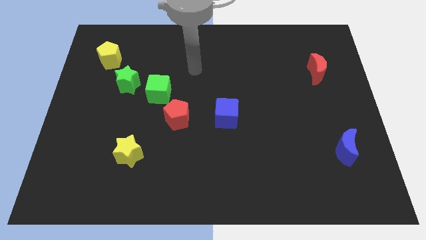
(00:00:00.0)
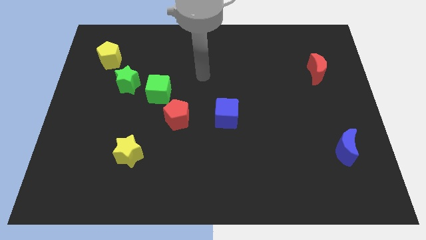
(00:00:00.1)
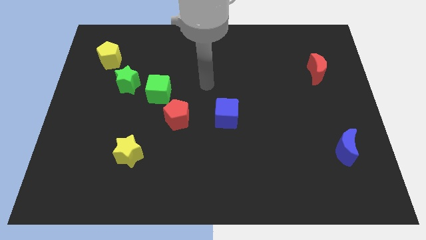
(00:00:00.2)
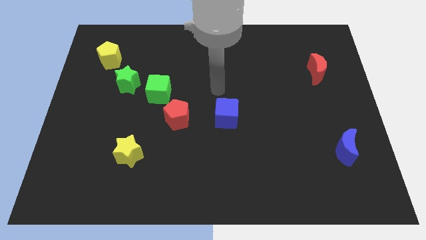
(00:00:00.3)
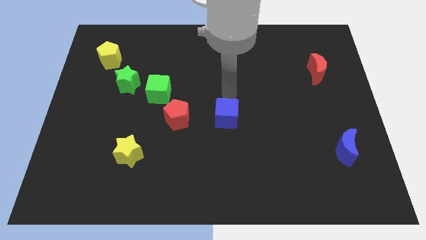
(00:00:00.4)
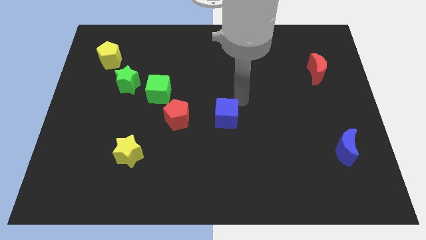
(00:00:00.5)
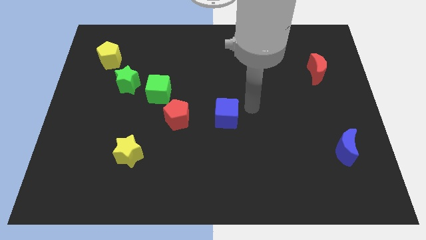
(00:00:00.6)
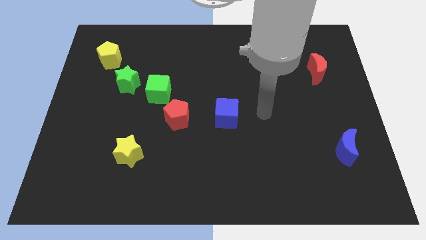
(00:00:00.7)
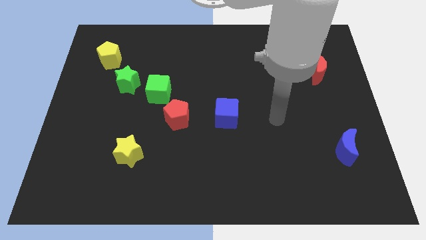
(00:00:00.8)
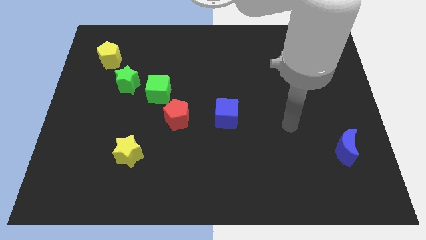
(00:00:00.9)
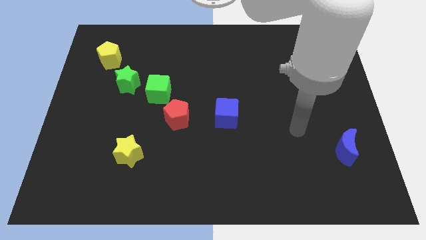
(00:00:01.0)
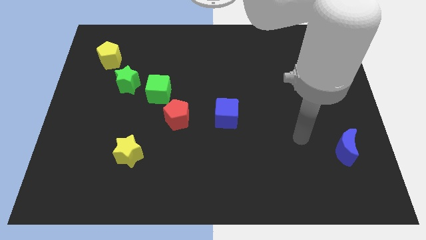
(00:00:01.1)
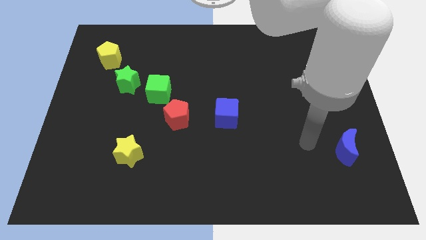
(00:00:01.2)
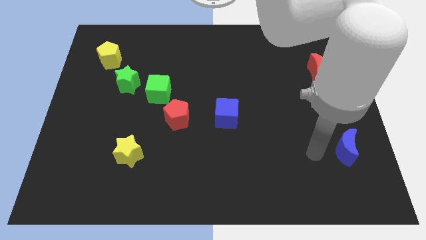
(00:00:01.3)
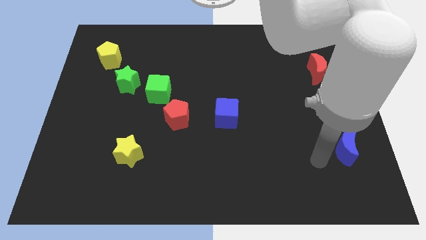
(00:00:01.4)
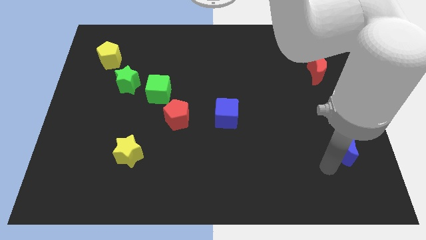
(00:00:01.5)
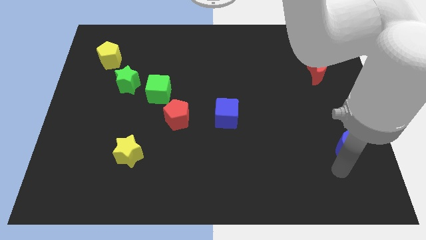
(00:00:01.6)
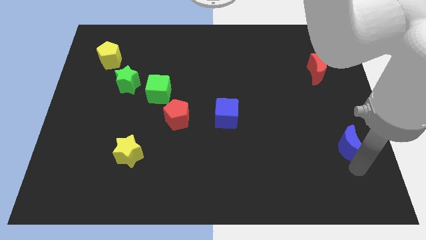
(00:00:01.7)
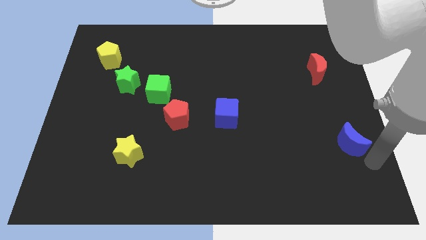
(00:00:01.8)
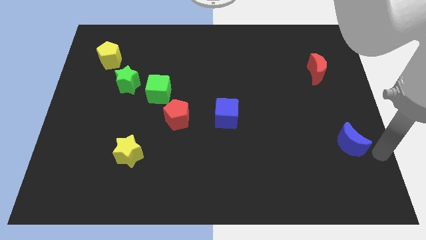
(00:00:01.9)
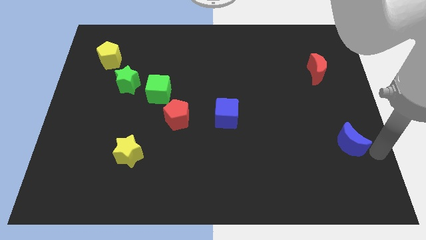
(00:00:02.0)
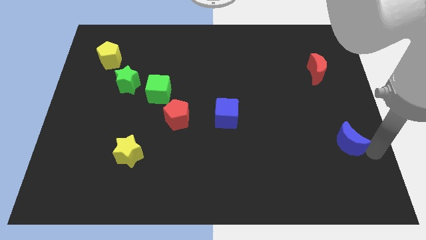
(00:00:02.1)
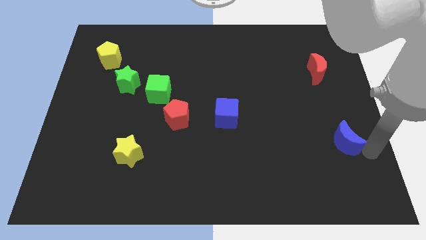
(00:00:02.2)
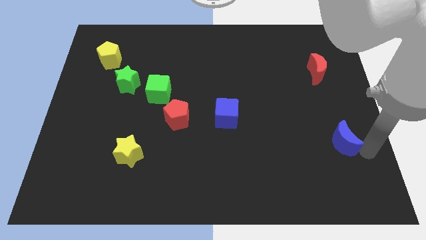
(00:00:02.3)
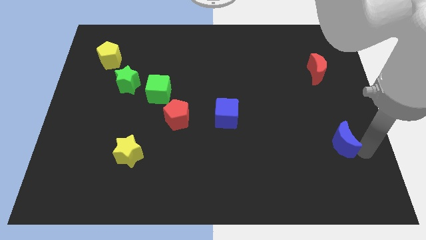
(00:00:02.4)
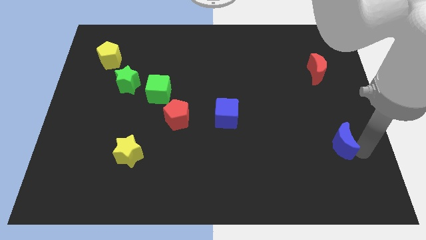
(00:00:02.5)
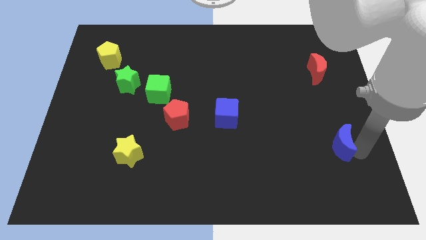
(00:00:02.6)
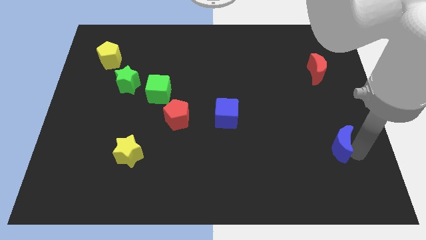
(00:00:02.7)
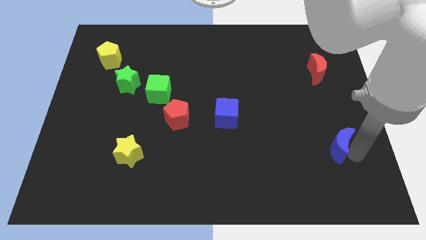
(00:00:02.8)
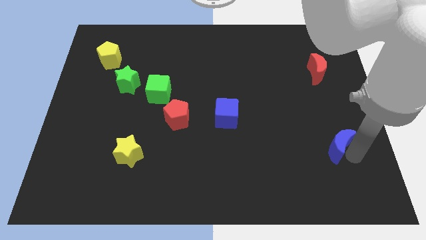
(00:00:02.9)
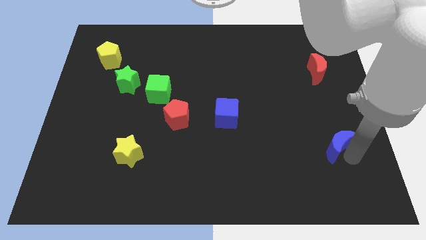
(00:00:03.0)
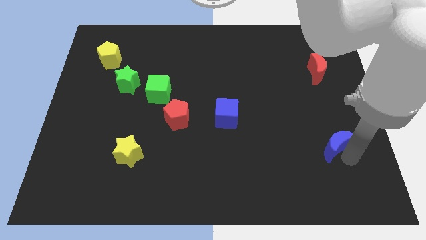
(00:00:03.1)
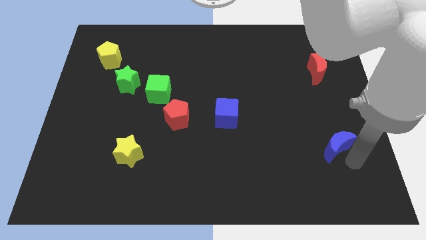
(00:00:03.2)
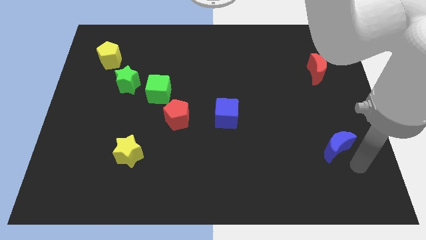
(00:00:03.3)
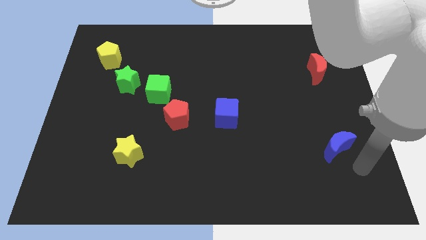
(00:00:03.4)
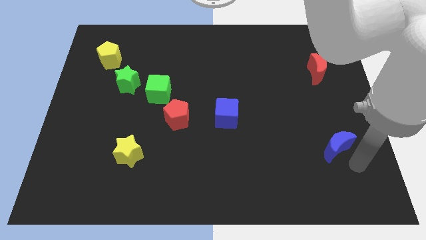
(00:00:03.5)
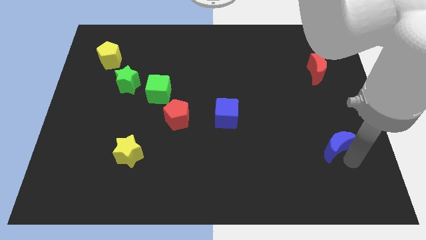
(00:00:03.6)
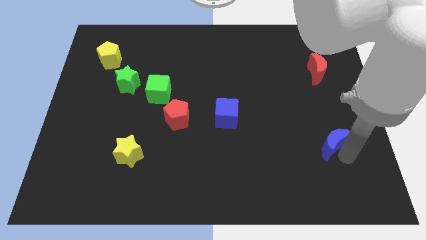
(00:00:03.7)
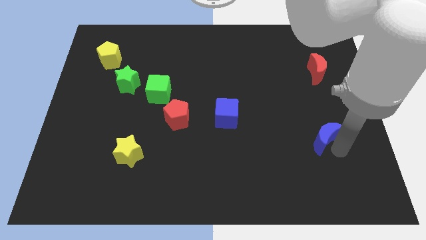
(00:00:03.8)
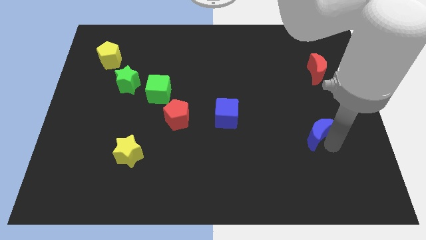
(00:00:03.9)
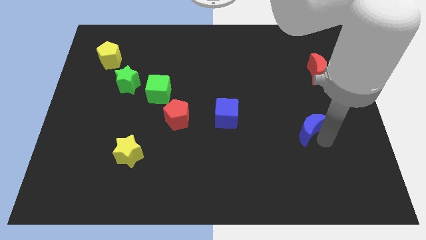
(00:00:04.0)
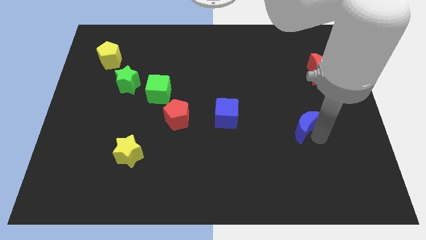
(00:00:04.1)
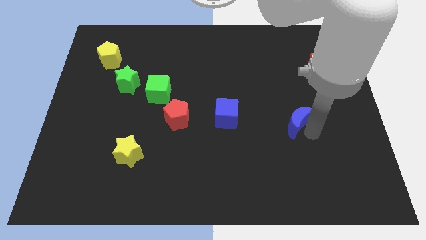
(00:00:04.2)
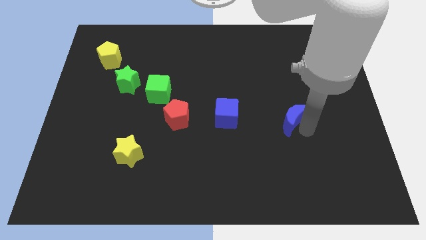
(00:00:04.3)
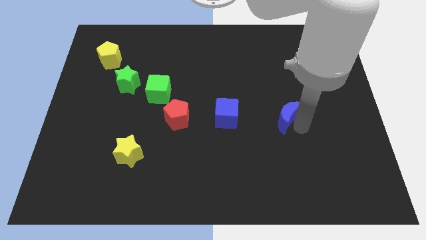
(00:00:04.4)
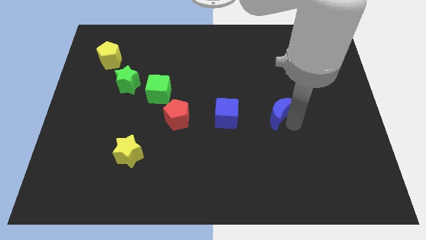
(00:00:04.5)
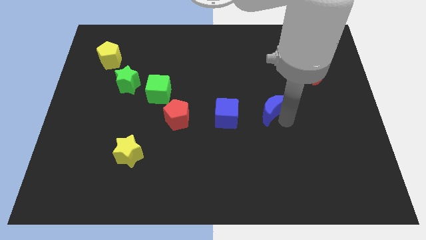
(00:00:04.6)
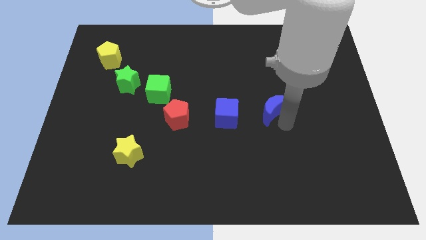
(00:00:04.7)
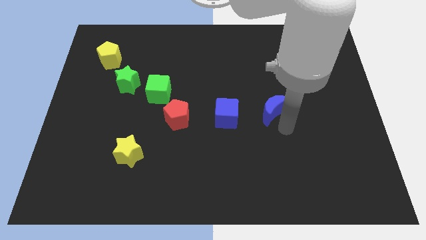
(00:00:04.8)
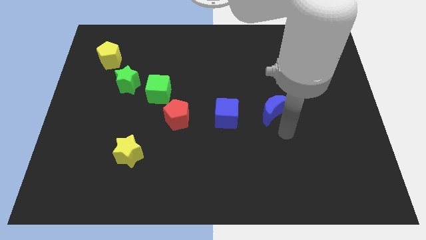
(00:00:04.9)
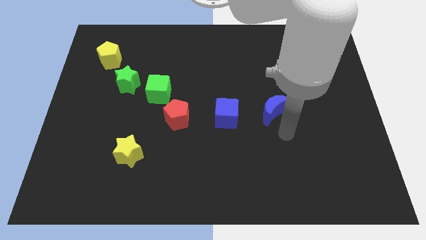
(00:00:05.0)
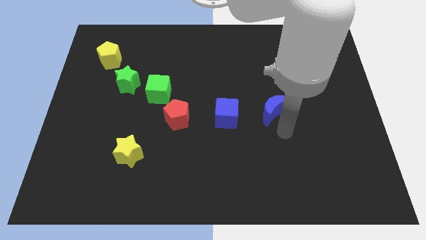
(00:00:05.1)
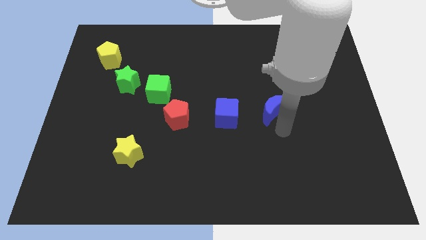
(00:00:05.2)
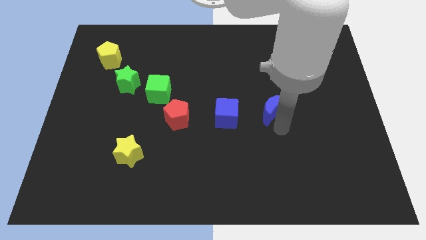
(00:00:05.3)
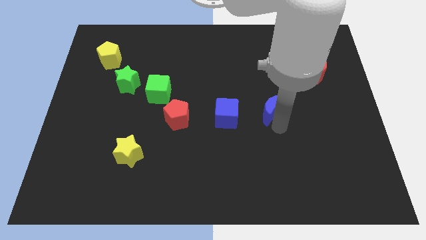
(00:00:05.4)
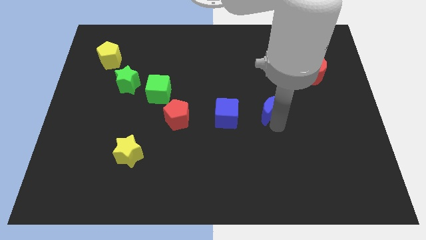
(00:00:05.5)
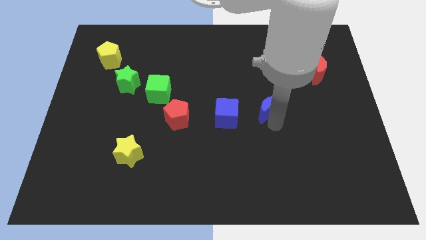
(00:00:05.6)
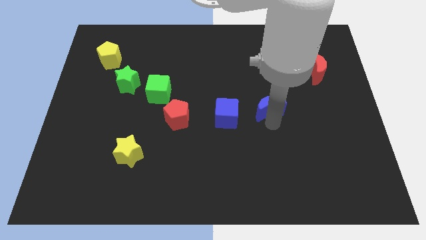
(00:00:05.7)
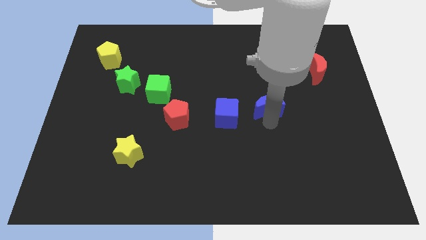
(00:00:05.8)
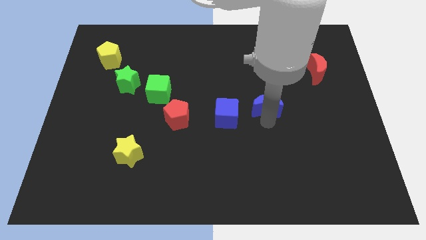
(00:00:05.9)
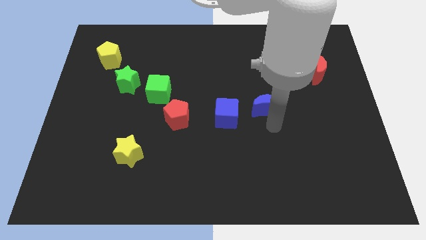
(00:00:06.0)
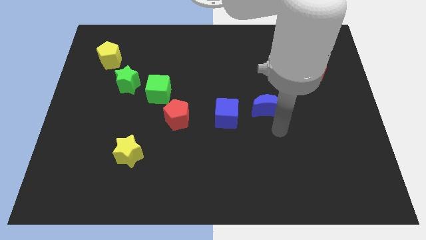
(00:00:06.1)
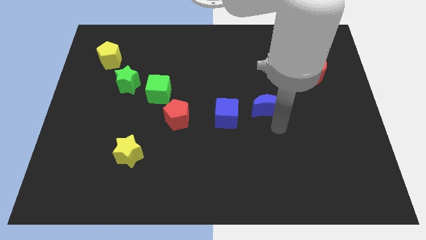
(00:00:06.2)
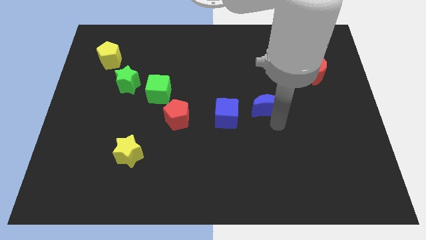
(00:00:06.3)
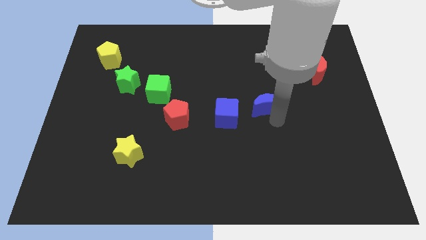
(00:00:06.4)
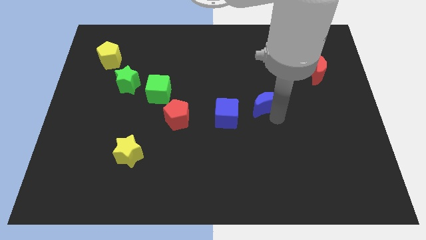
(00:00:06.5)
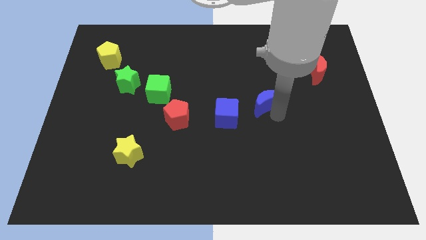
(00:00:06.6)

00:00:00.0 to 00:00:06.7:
move the blue moon diagonally up and left

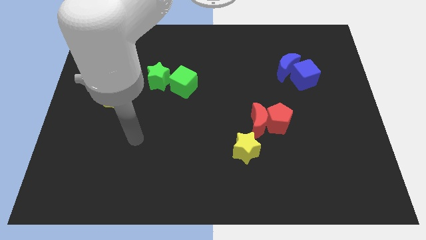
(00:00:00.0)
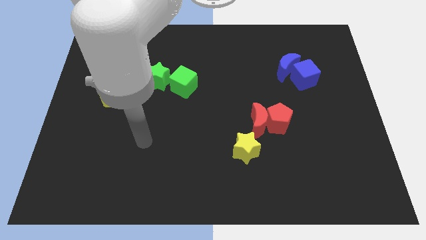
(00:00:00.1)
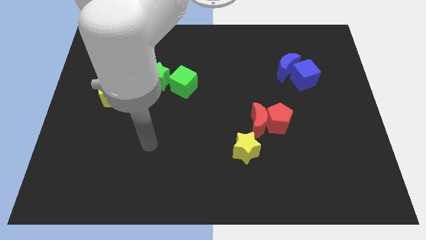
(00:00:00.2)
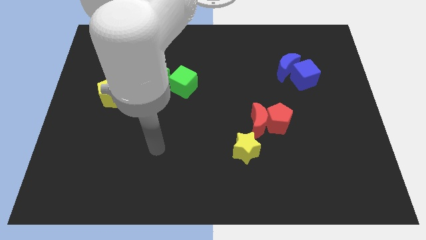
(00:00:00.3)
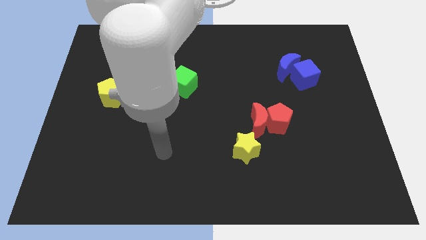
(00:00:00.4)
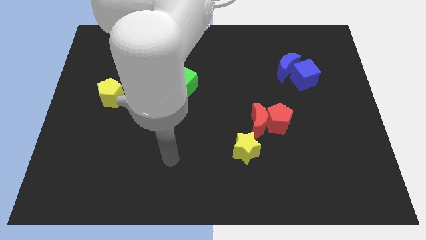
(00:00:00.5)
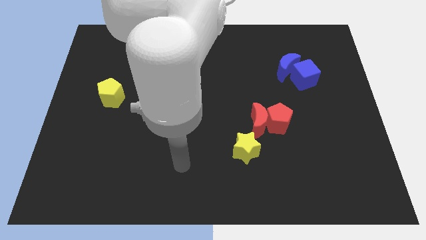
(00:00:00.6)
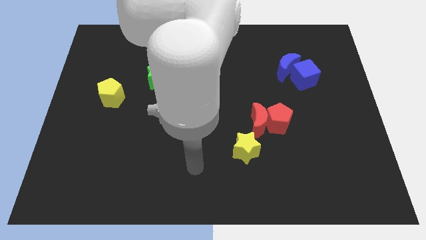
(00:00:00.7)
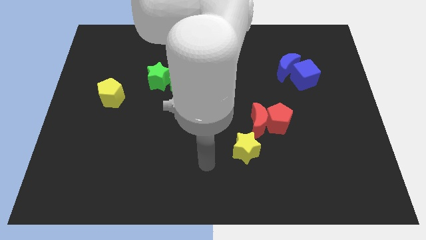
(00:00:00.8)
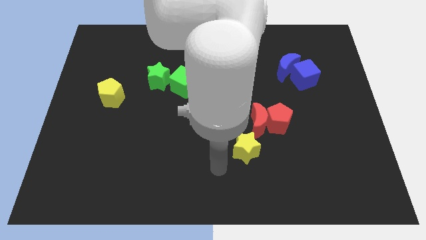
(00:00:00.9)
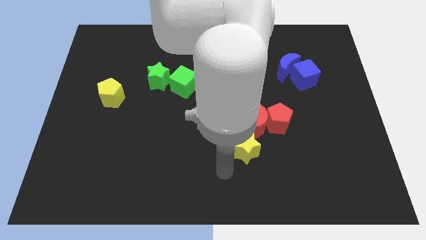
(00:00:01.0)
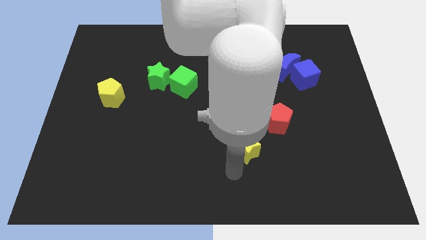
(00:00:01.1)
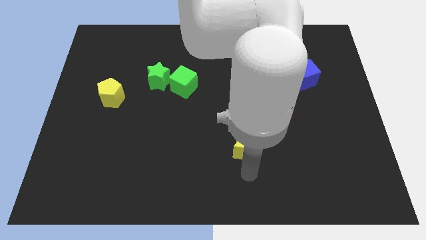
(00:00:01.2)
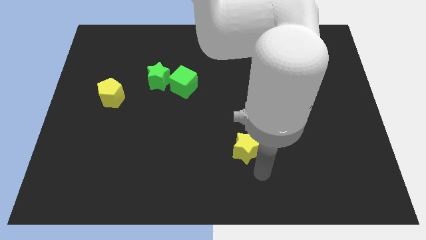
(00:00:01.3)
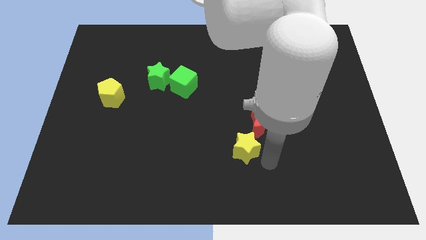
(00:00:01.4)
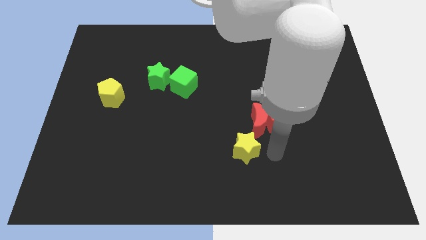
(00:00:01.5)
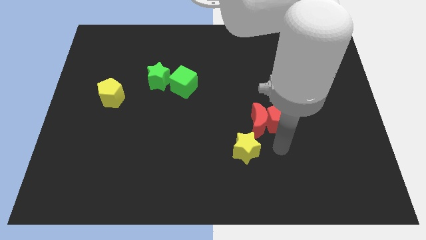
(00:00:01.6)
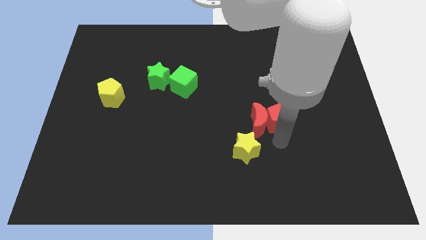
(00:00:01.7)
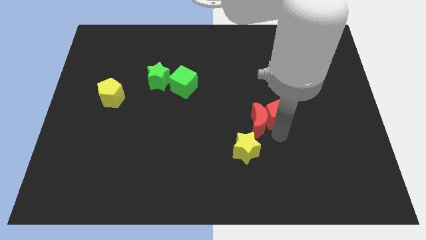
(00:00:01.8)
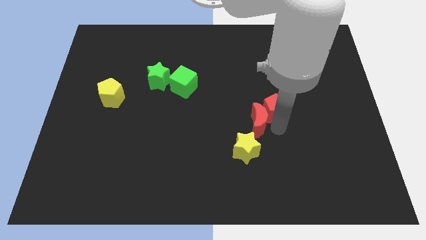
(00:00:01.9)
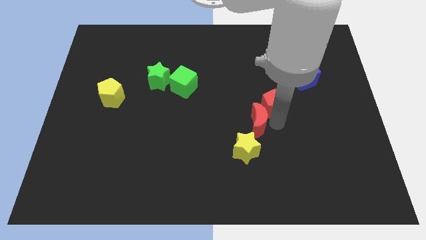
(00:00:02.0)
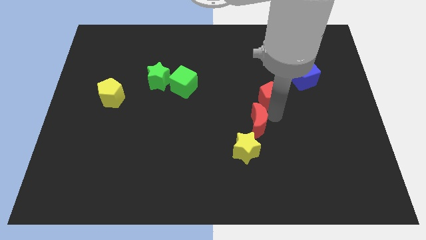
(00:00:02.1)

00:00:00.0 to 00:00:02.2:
slightly move the red pentagon up
